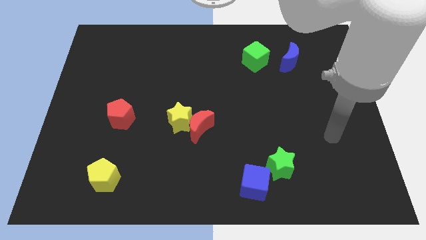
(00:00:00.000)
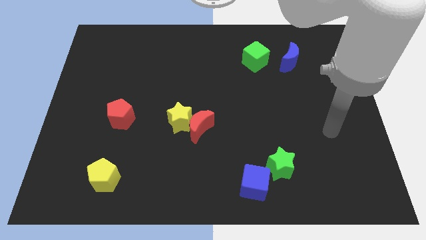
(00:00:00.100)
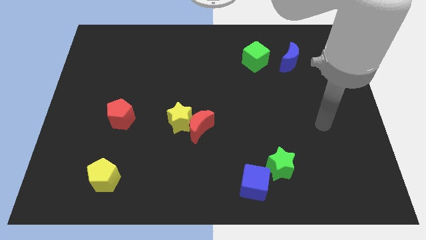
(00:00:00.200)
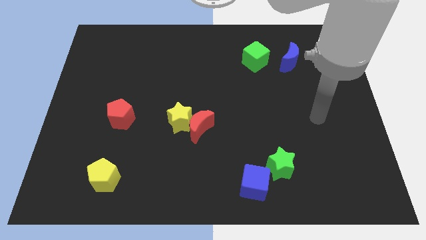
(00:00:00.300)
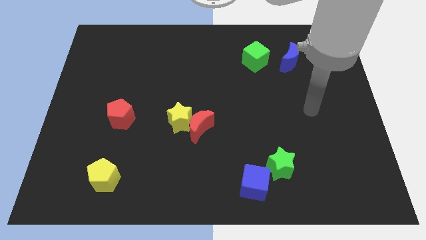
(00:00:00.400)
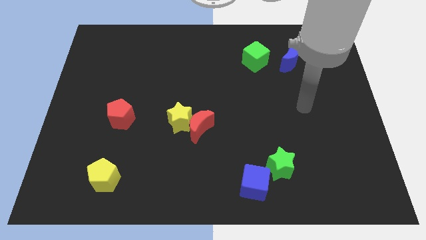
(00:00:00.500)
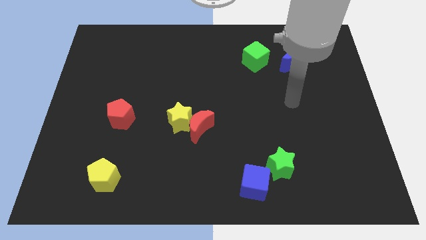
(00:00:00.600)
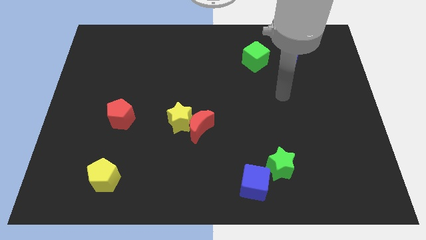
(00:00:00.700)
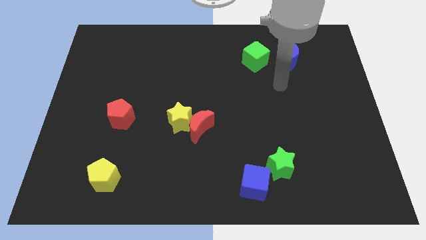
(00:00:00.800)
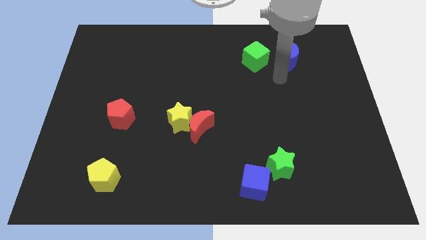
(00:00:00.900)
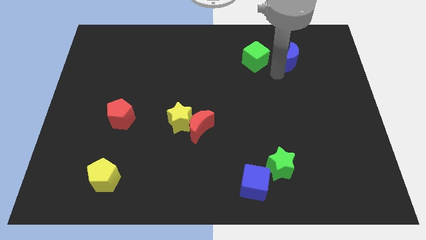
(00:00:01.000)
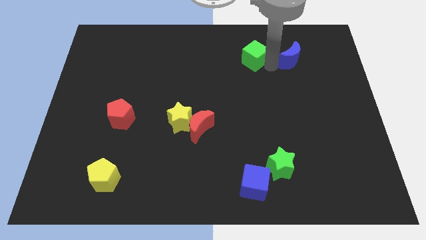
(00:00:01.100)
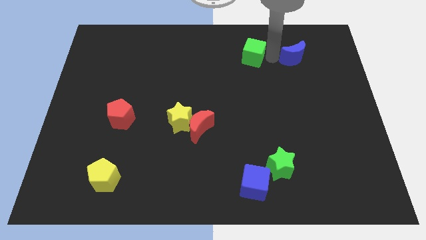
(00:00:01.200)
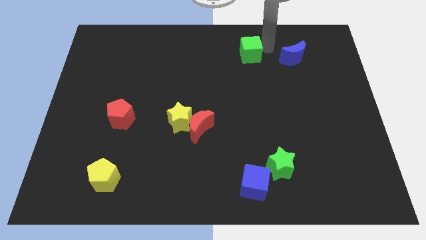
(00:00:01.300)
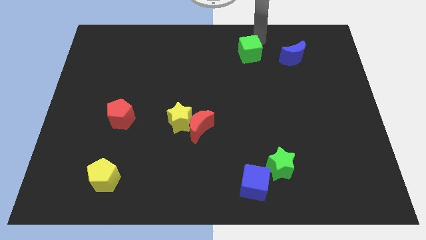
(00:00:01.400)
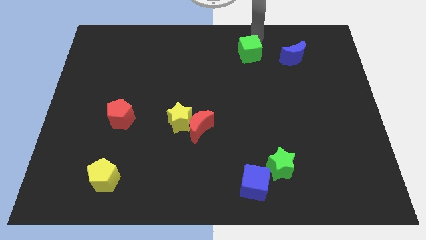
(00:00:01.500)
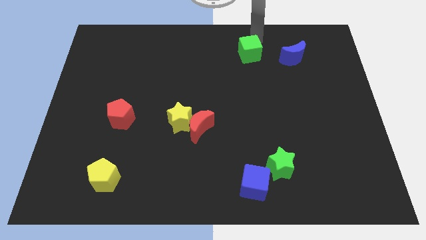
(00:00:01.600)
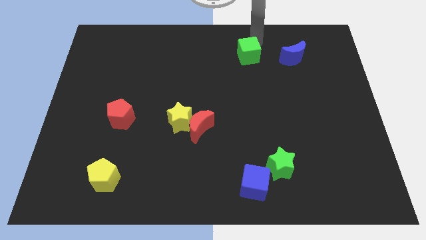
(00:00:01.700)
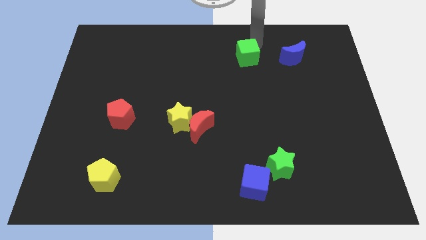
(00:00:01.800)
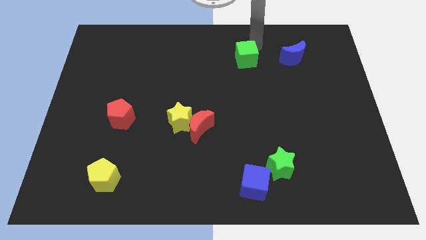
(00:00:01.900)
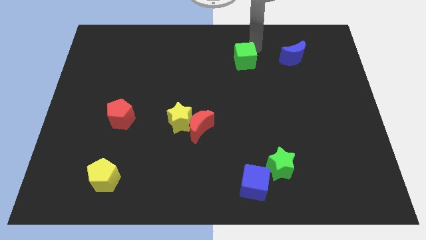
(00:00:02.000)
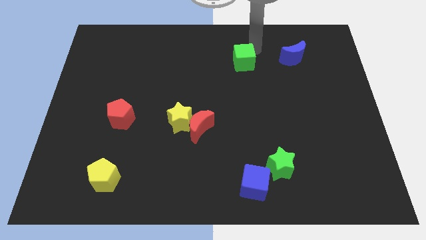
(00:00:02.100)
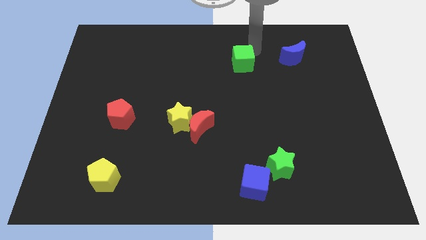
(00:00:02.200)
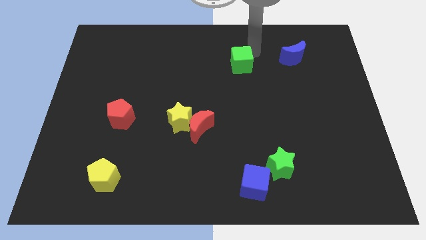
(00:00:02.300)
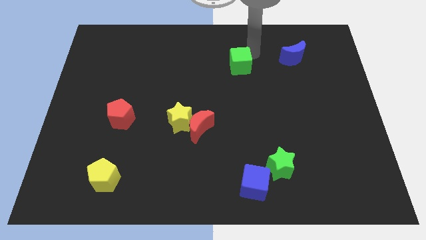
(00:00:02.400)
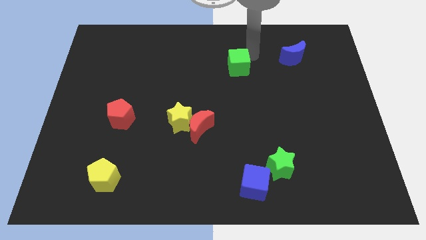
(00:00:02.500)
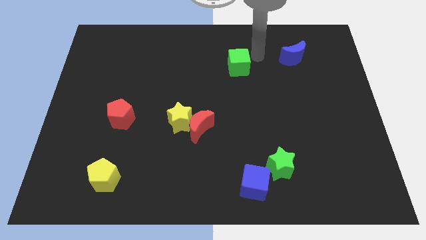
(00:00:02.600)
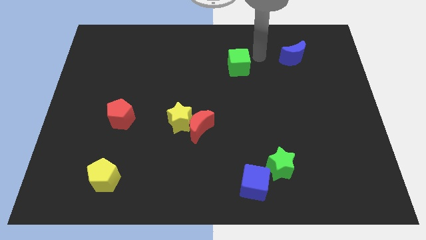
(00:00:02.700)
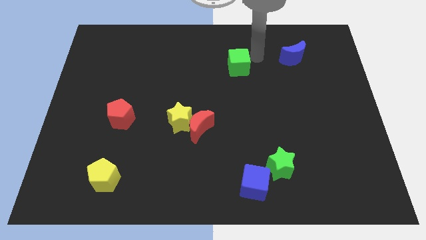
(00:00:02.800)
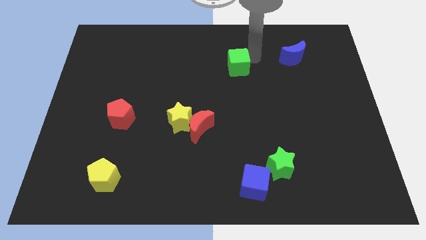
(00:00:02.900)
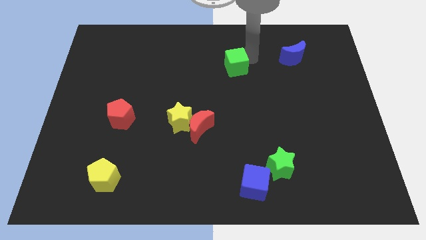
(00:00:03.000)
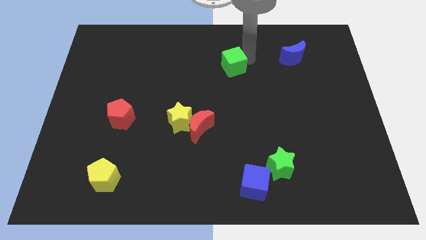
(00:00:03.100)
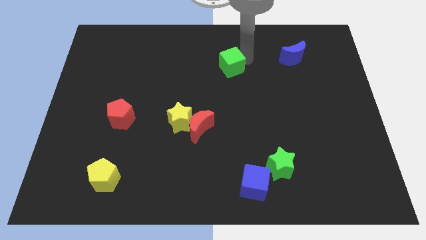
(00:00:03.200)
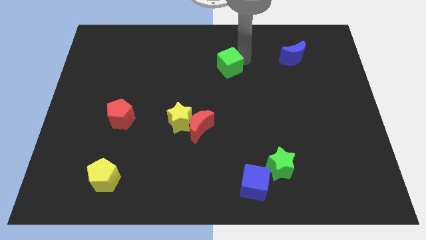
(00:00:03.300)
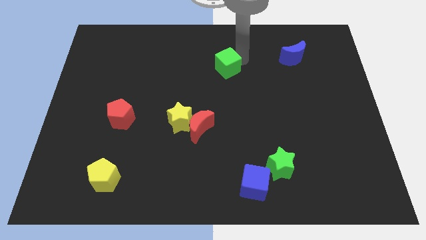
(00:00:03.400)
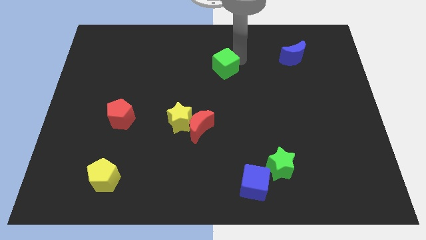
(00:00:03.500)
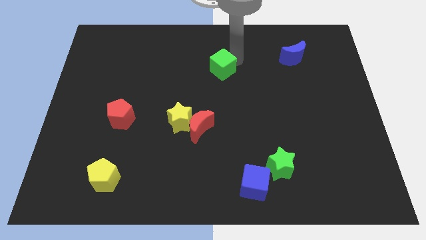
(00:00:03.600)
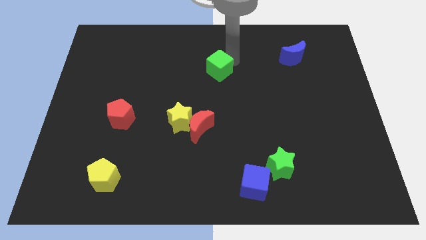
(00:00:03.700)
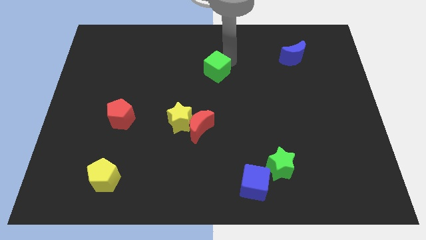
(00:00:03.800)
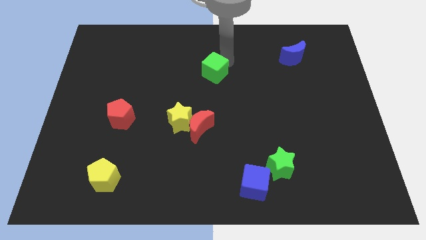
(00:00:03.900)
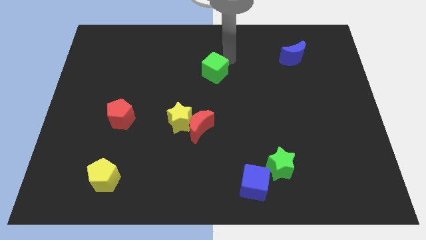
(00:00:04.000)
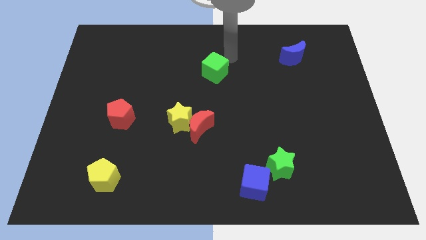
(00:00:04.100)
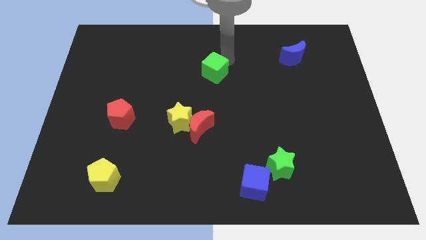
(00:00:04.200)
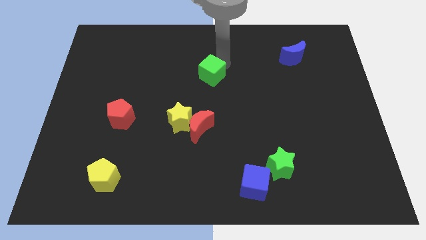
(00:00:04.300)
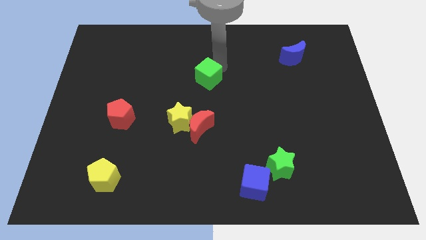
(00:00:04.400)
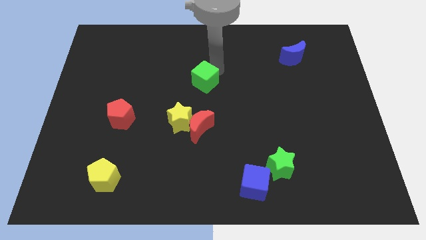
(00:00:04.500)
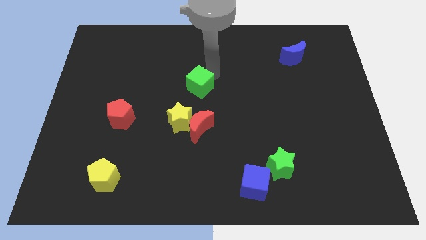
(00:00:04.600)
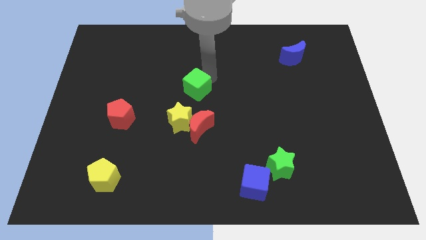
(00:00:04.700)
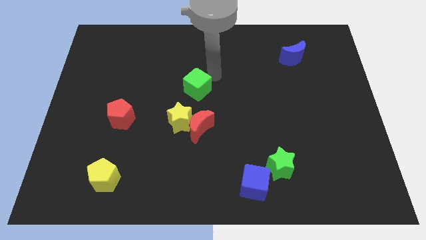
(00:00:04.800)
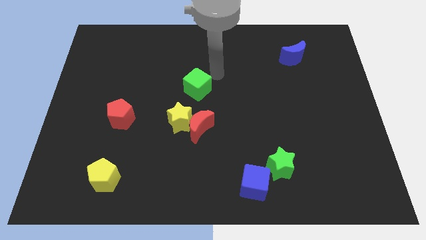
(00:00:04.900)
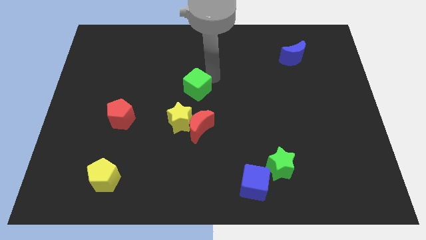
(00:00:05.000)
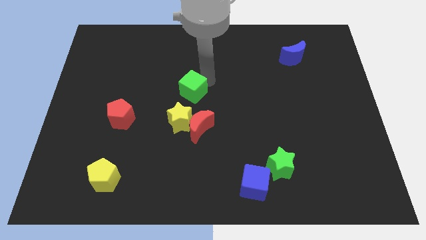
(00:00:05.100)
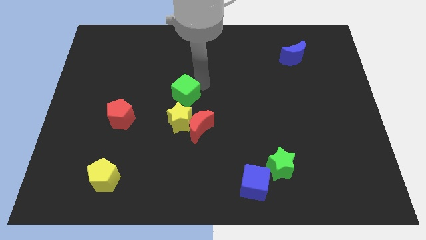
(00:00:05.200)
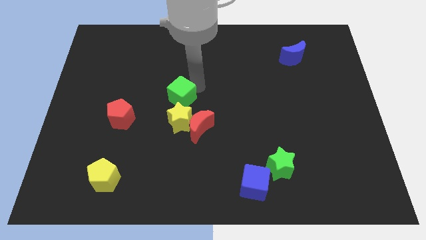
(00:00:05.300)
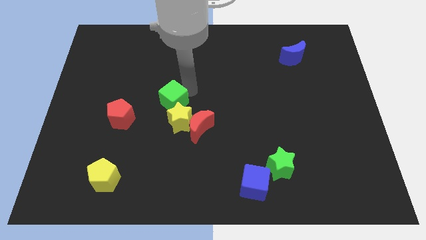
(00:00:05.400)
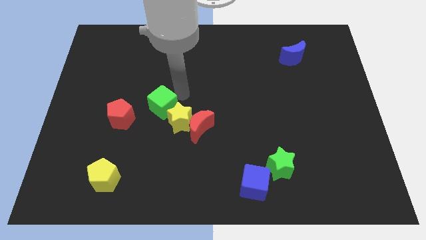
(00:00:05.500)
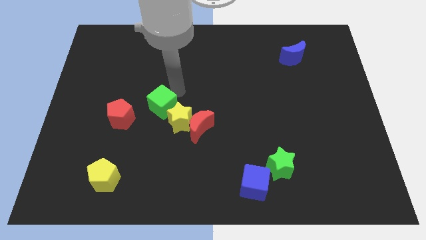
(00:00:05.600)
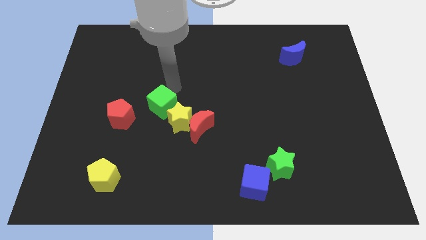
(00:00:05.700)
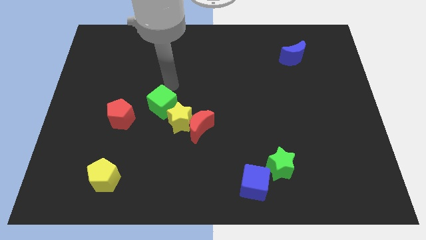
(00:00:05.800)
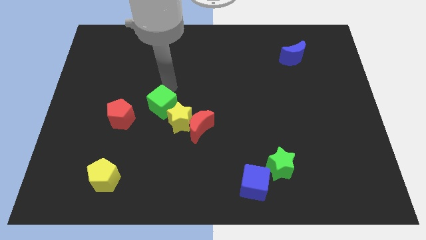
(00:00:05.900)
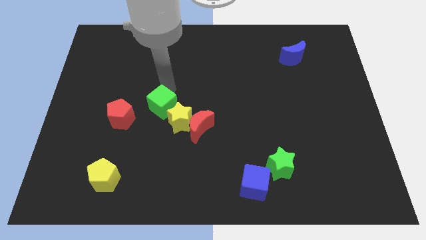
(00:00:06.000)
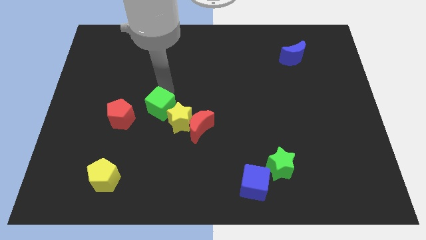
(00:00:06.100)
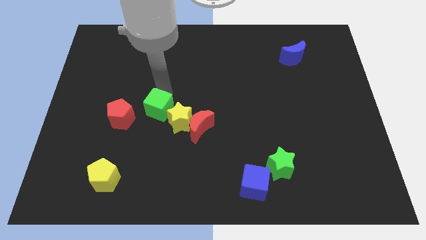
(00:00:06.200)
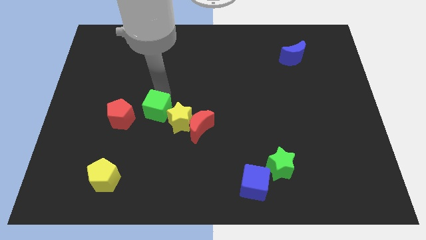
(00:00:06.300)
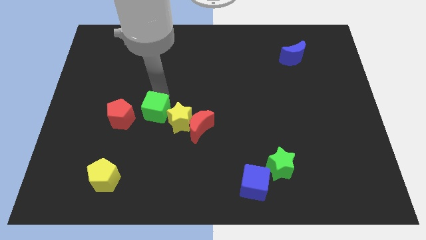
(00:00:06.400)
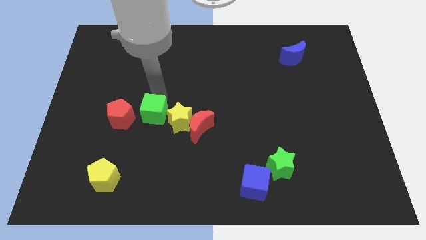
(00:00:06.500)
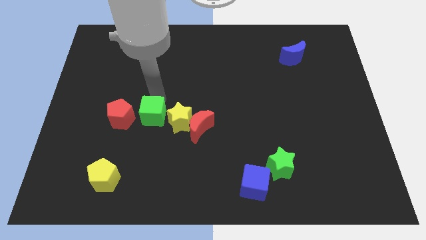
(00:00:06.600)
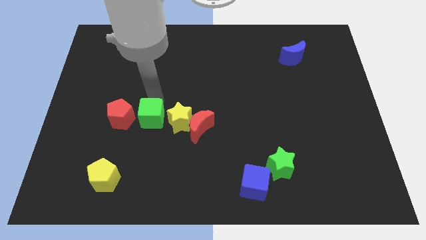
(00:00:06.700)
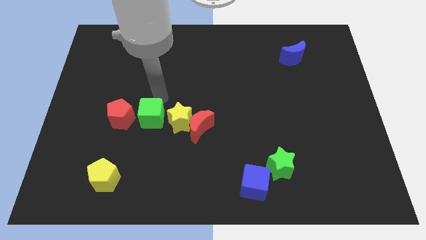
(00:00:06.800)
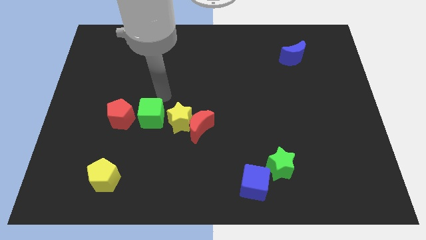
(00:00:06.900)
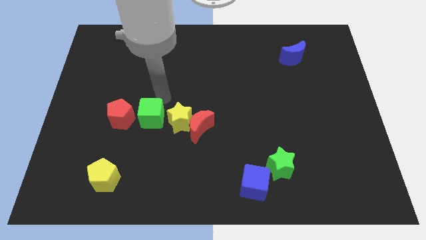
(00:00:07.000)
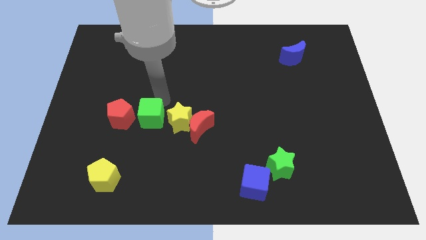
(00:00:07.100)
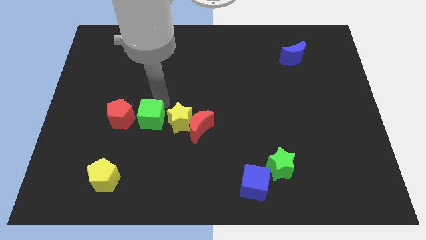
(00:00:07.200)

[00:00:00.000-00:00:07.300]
move the green cube to the bottom right side of the red pentagon
